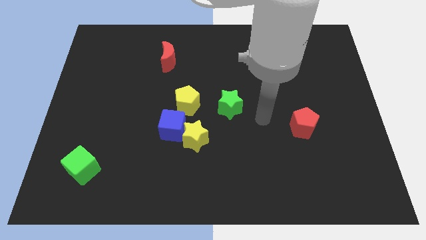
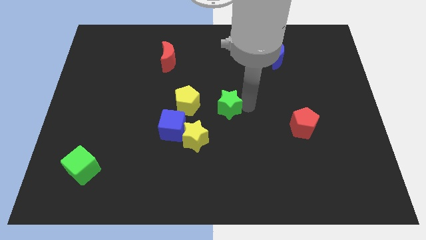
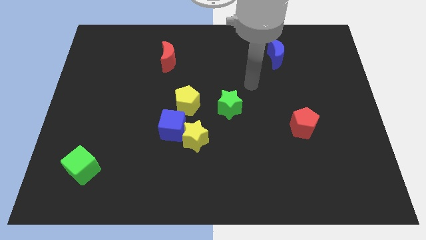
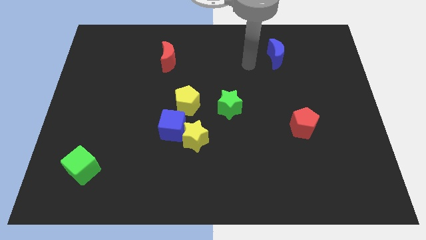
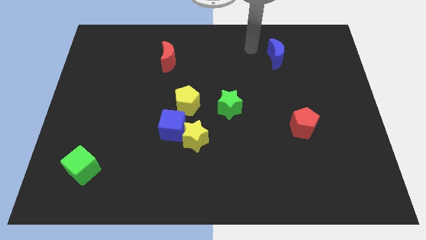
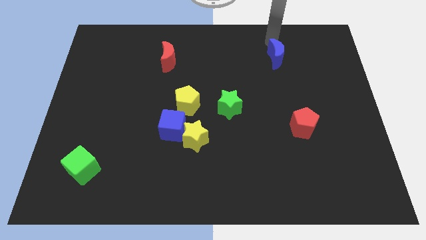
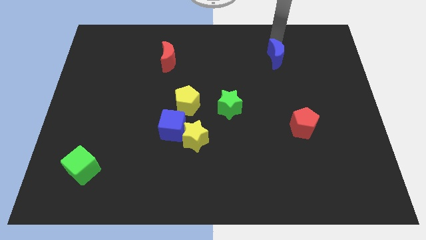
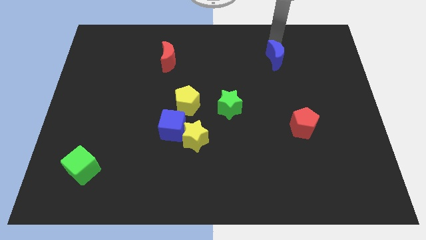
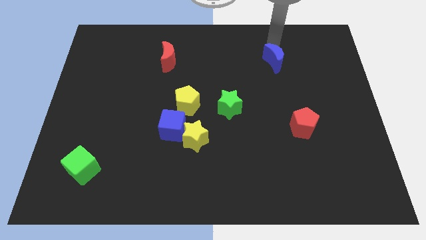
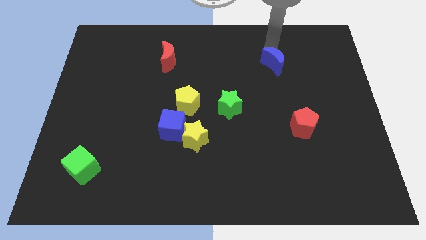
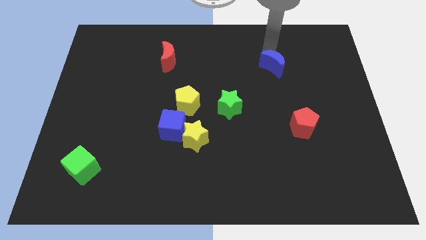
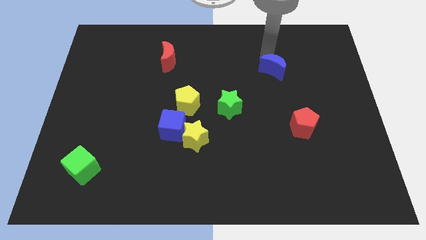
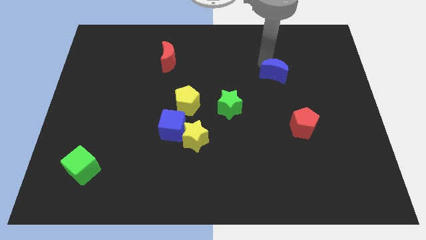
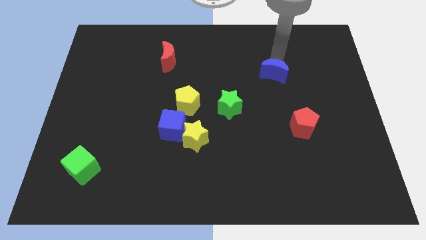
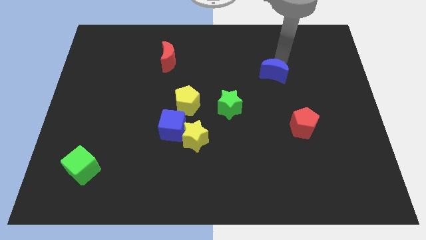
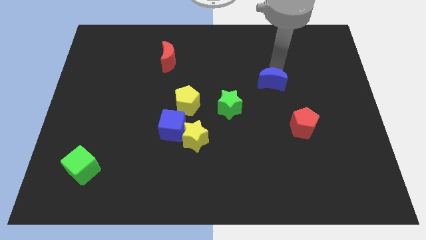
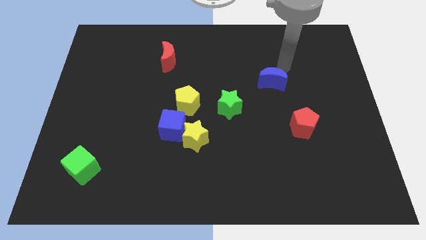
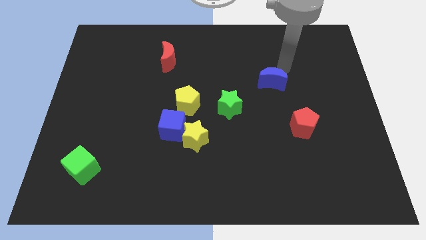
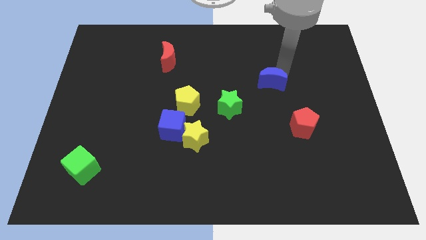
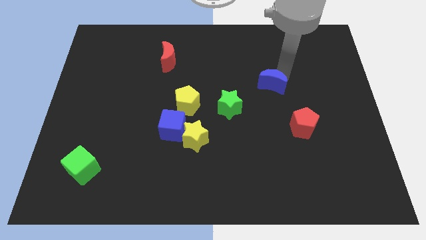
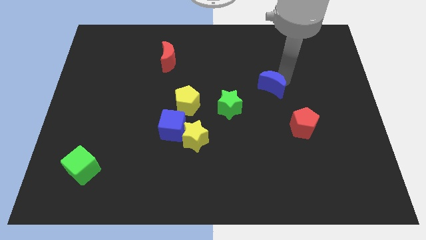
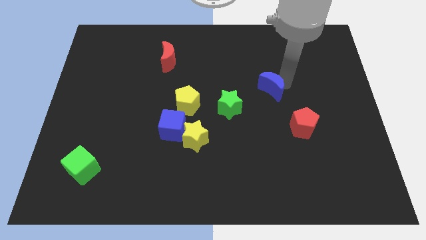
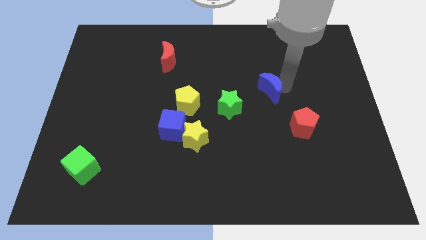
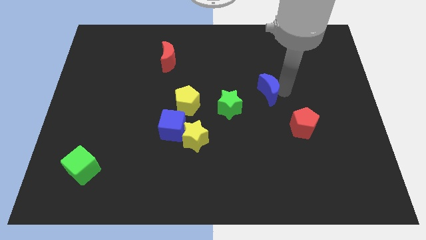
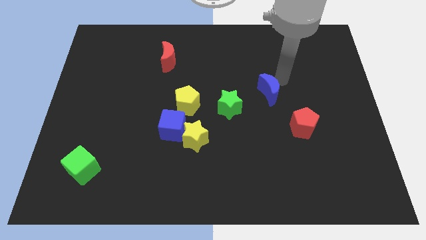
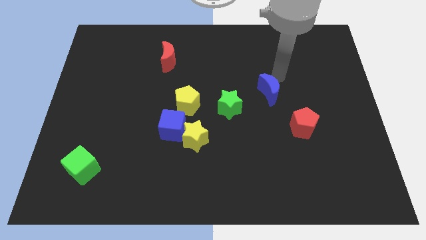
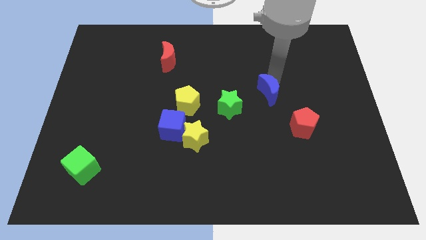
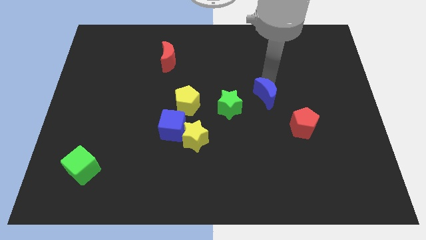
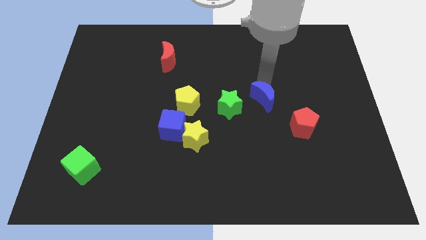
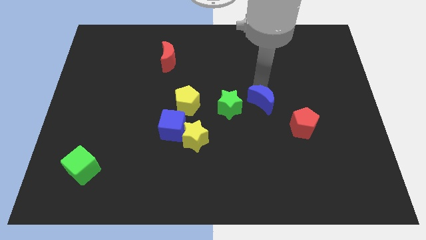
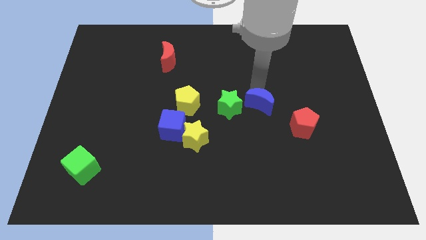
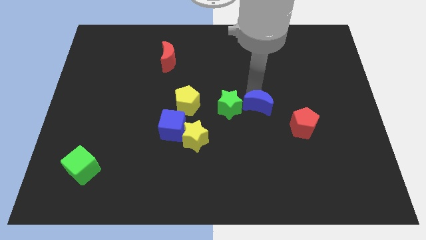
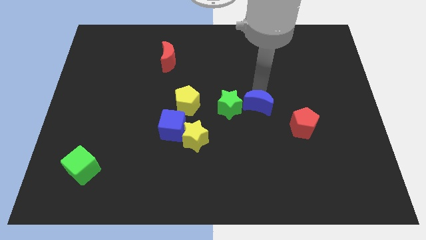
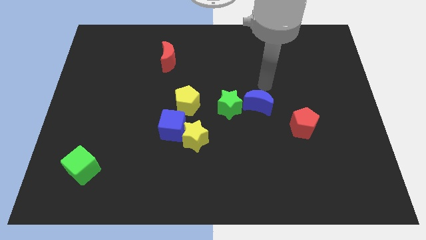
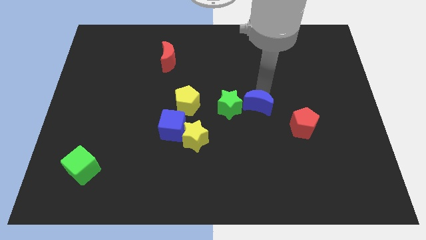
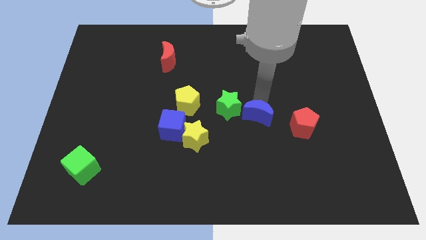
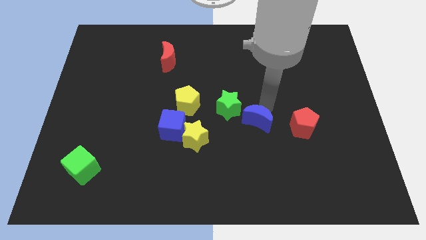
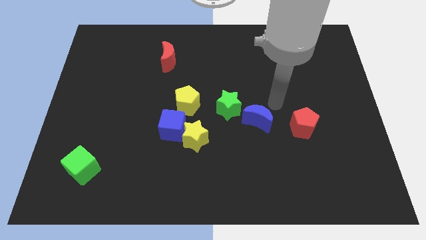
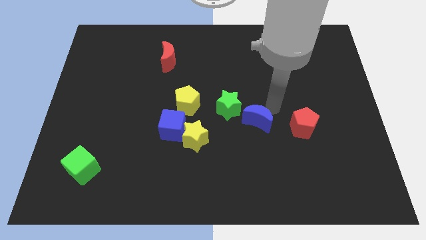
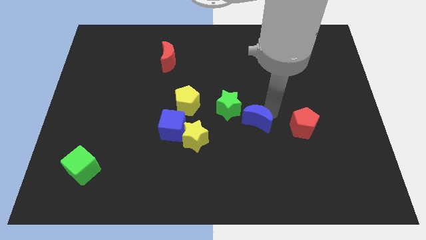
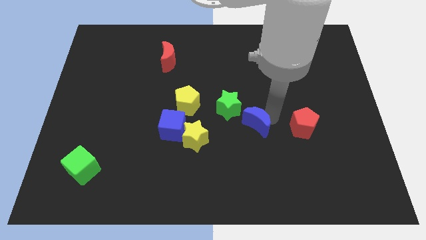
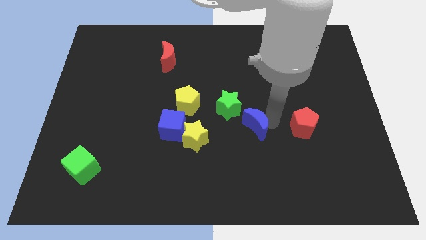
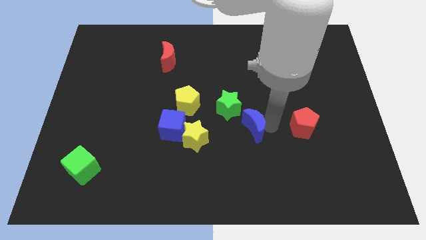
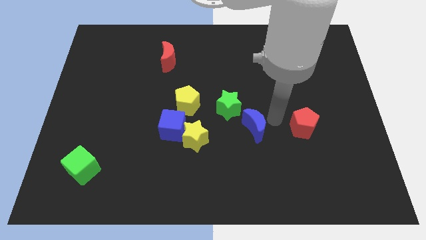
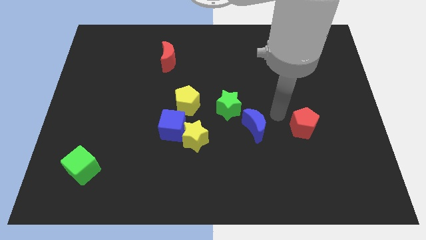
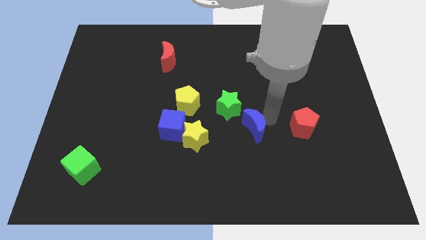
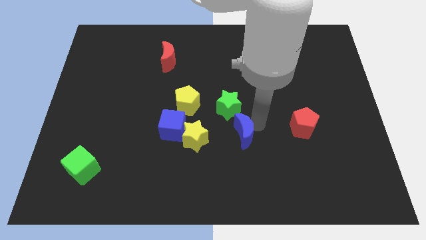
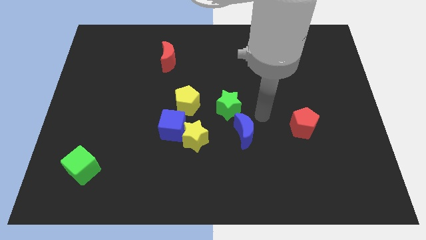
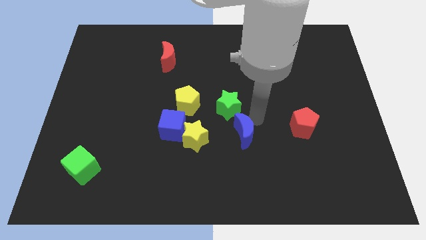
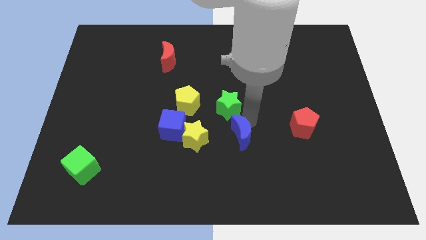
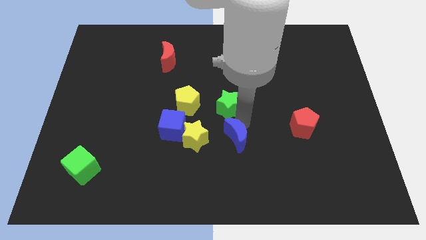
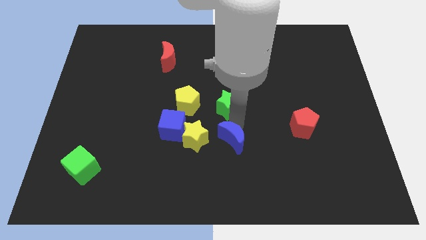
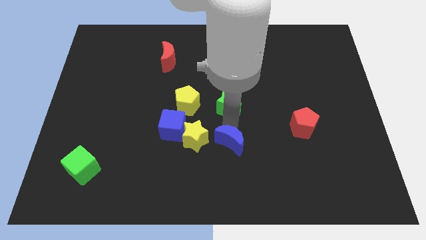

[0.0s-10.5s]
push the blue moon to the bottom right of the yellow star

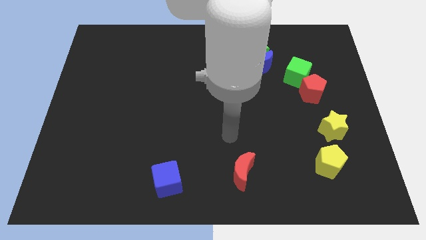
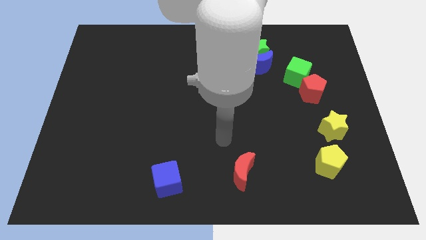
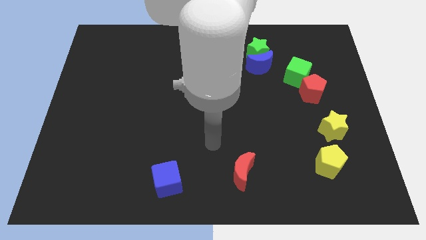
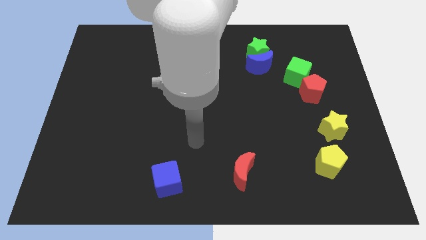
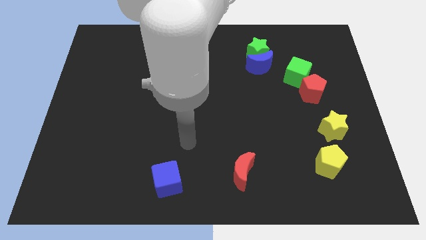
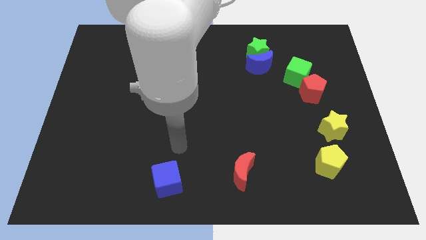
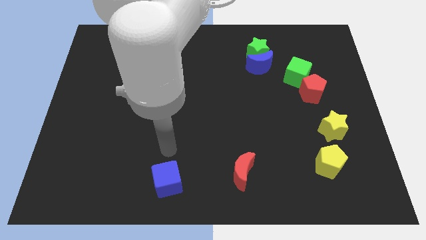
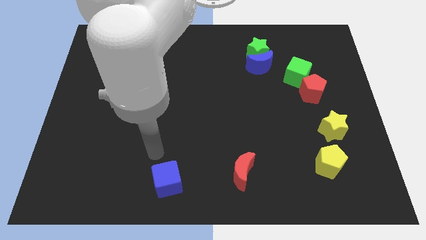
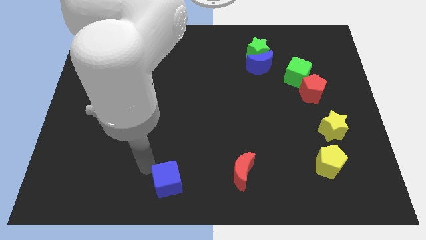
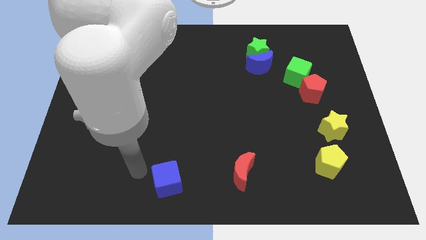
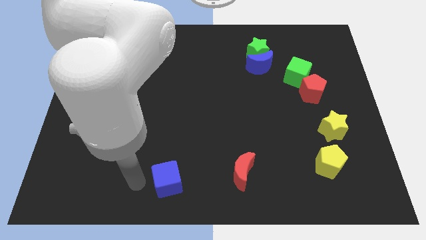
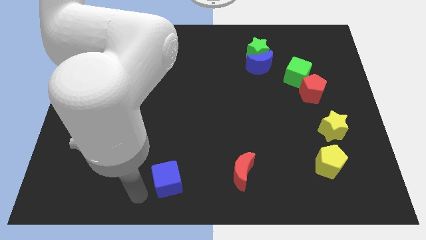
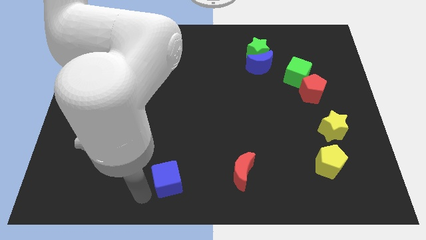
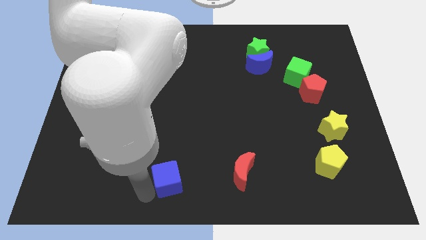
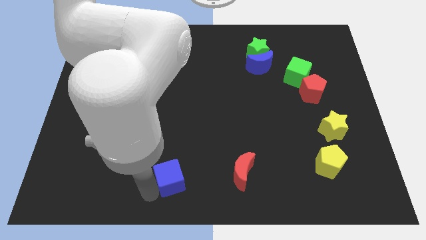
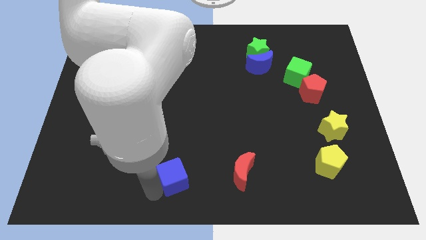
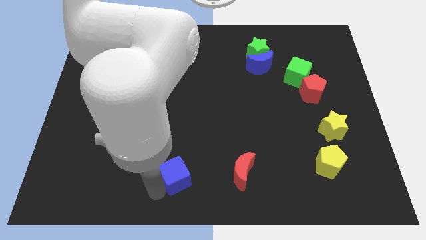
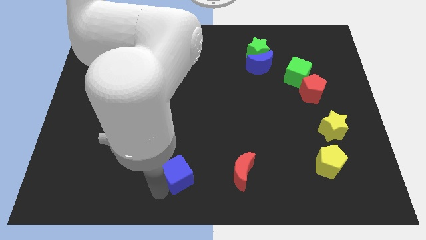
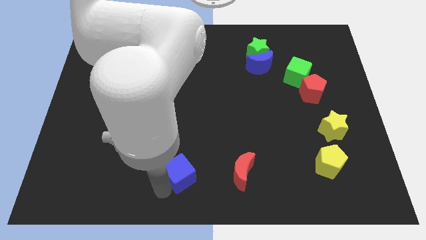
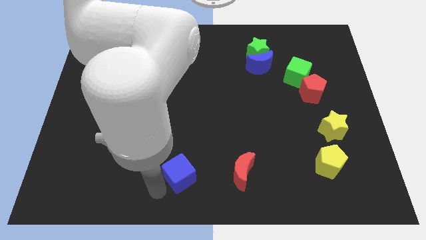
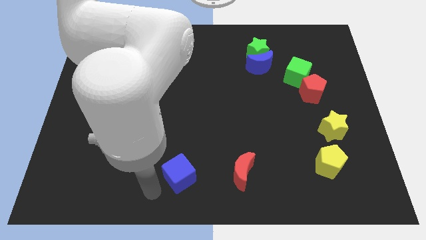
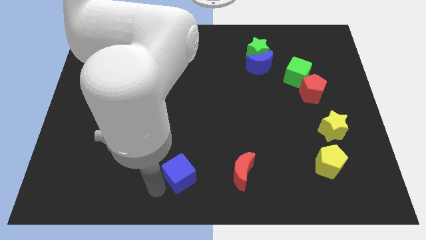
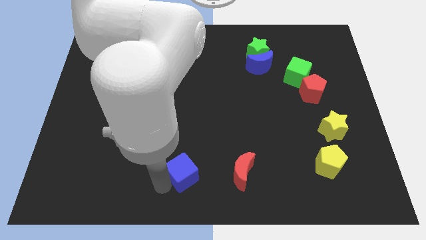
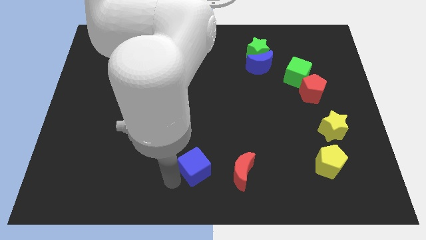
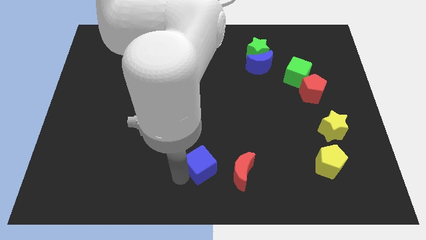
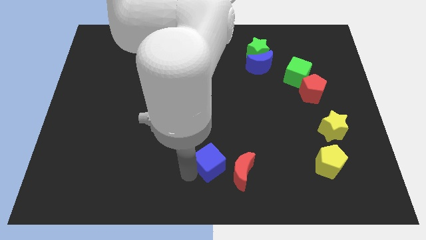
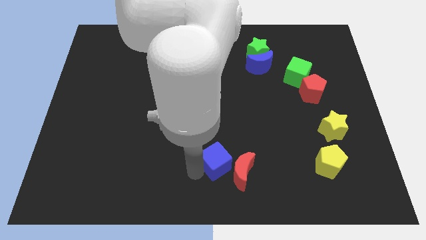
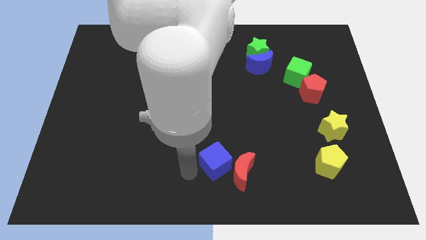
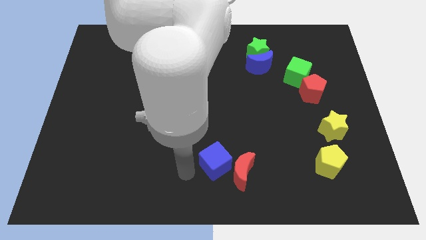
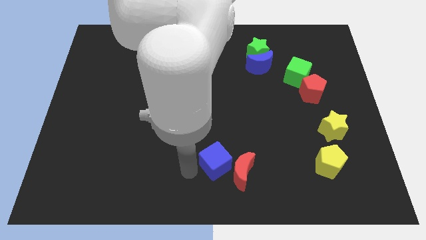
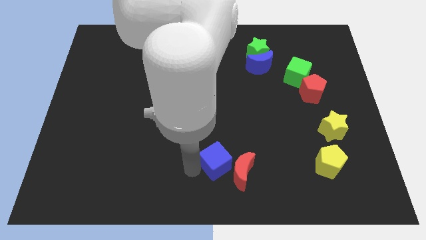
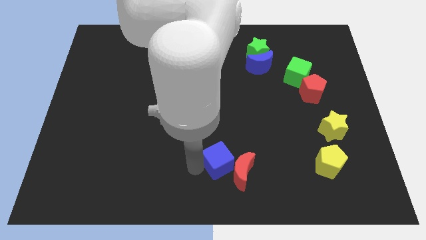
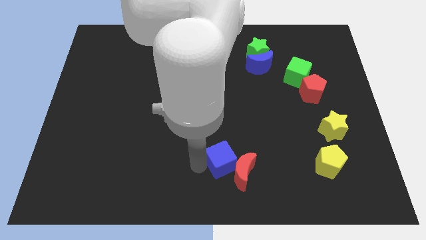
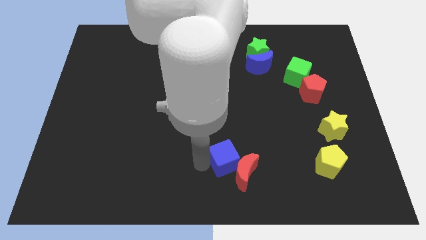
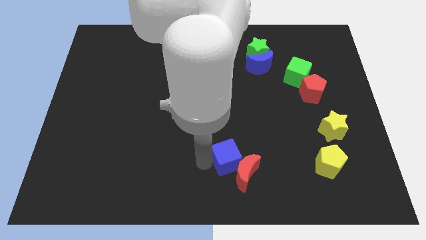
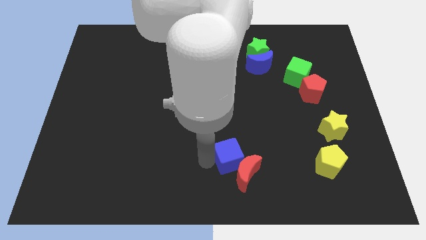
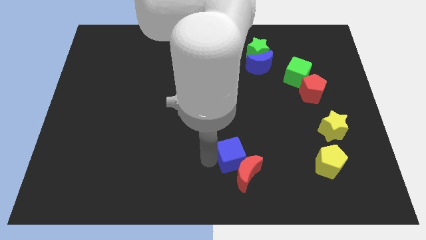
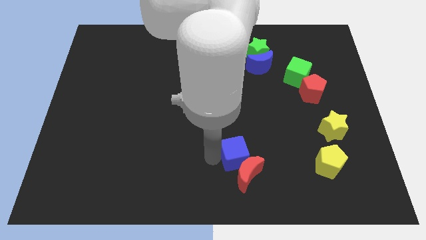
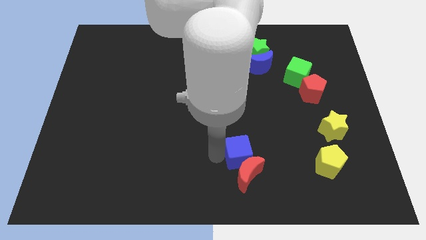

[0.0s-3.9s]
put the blue cube to the top right side of the red moon
